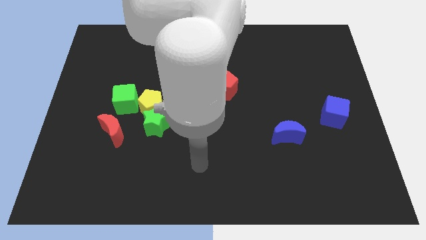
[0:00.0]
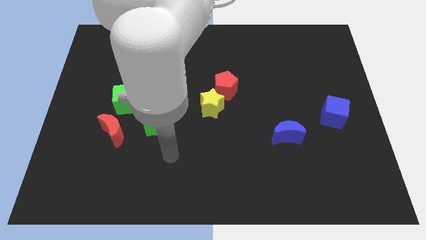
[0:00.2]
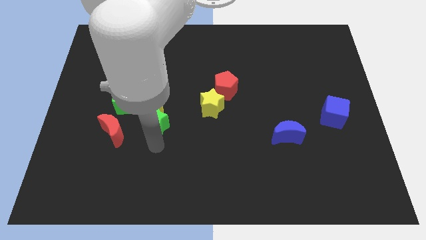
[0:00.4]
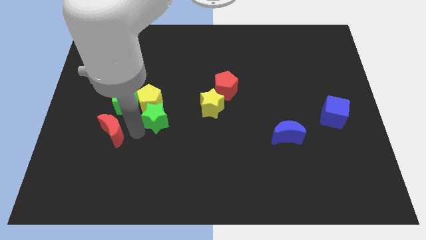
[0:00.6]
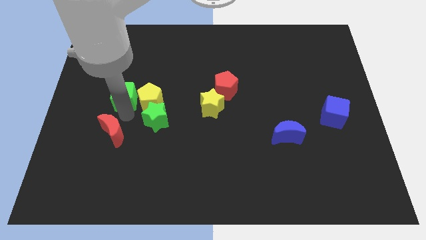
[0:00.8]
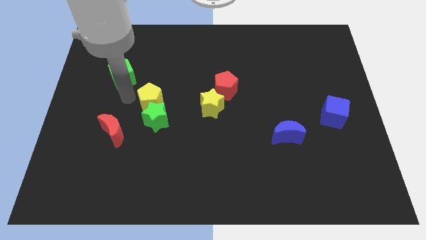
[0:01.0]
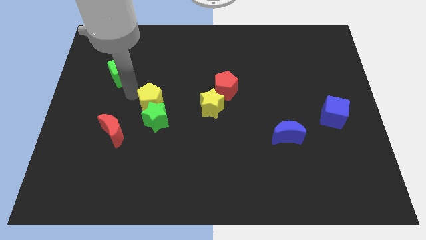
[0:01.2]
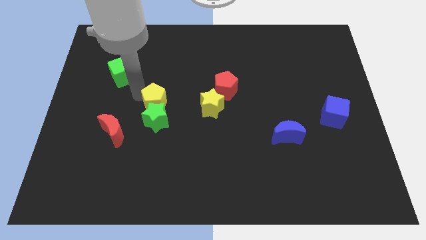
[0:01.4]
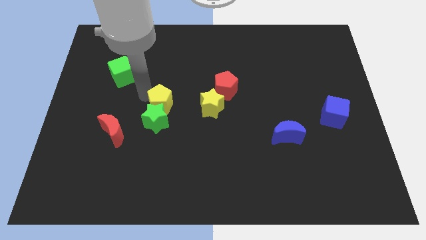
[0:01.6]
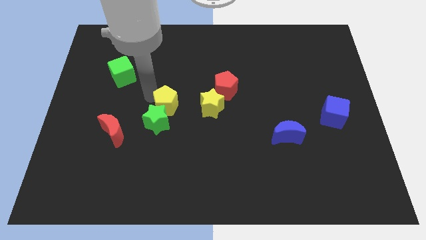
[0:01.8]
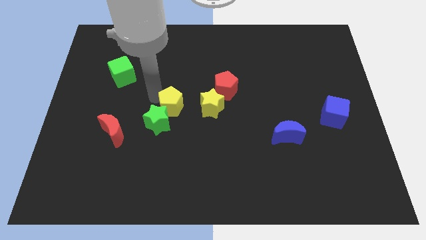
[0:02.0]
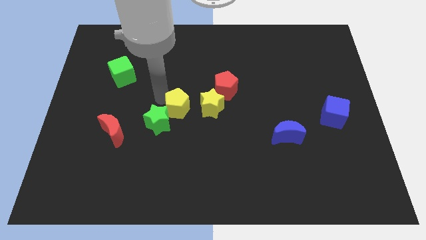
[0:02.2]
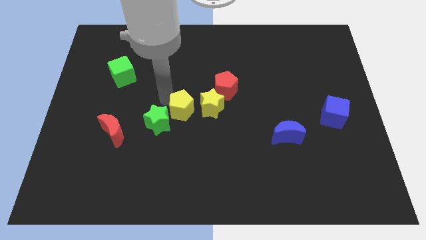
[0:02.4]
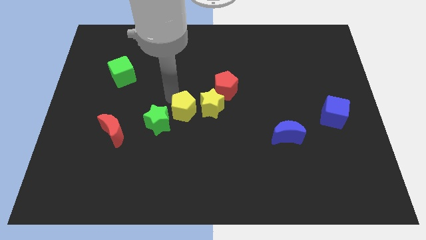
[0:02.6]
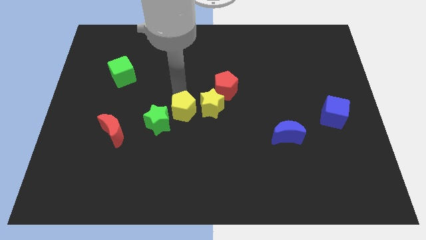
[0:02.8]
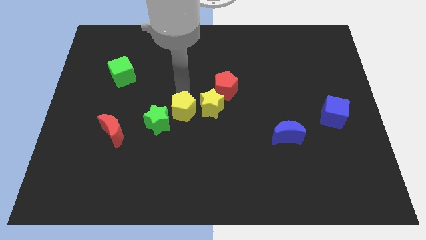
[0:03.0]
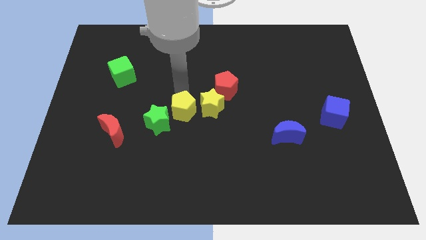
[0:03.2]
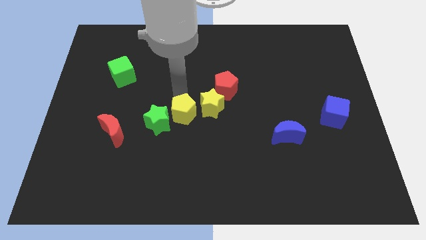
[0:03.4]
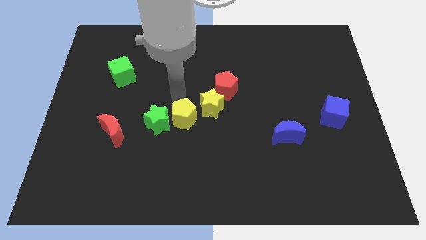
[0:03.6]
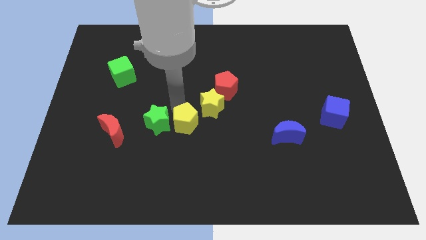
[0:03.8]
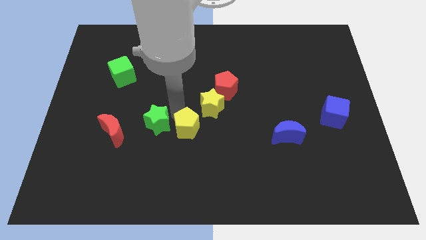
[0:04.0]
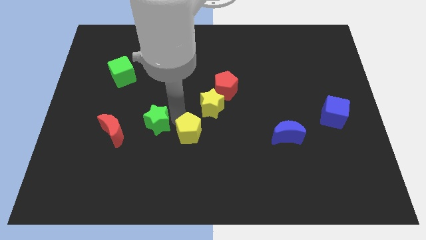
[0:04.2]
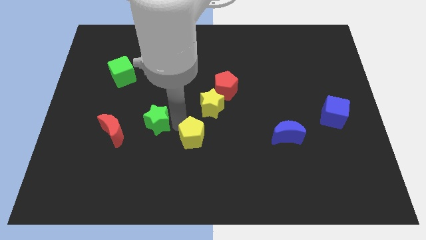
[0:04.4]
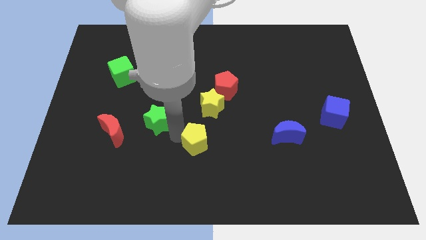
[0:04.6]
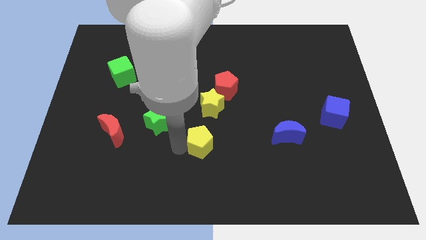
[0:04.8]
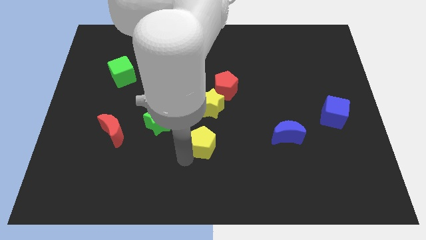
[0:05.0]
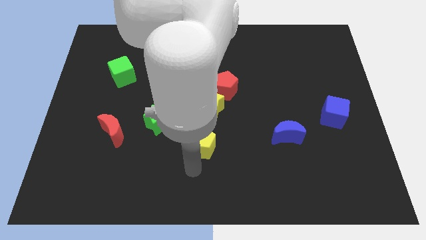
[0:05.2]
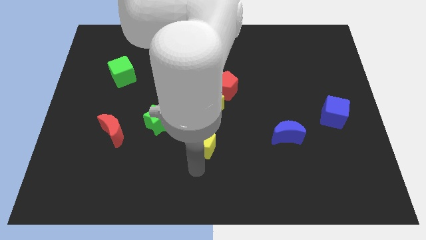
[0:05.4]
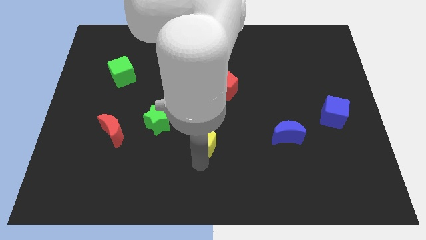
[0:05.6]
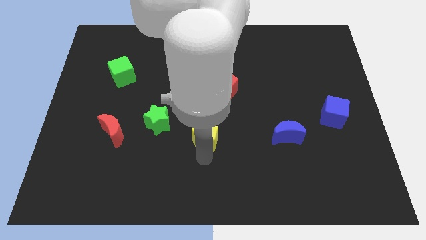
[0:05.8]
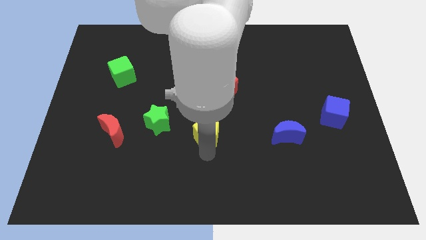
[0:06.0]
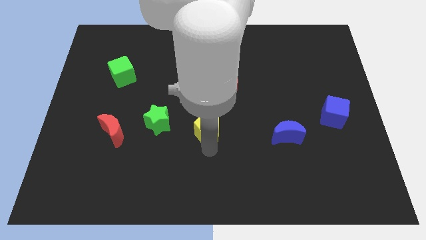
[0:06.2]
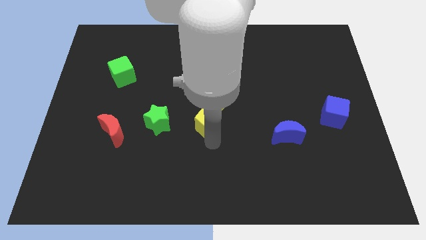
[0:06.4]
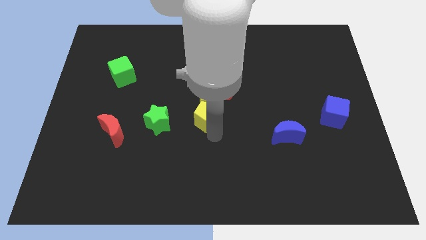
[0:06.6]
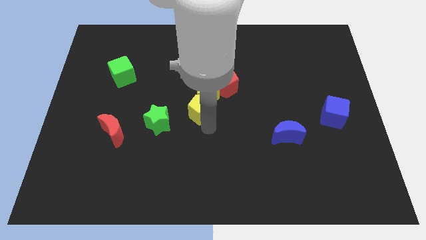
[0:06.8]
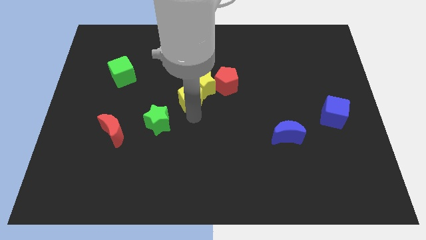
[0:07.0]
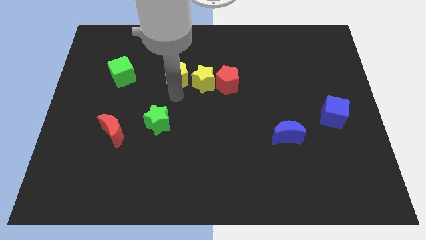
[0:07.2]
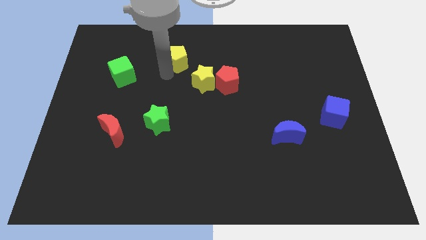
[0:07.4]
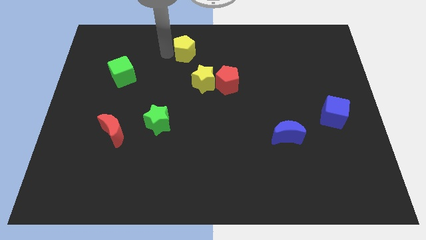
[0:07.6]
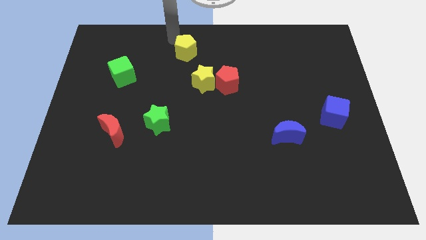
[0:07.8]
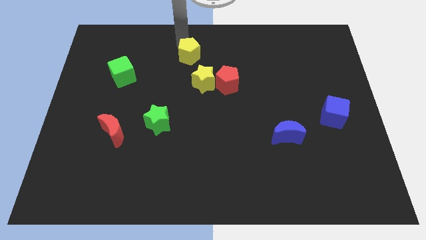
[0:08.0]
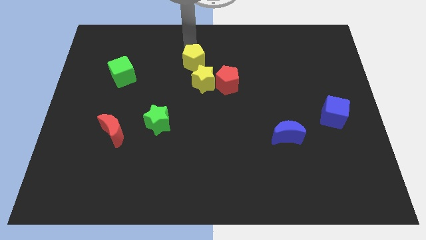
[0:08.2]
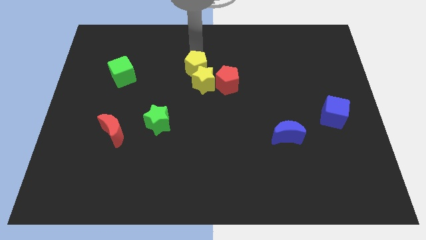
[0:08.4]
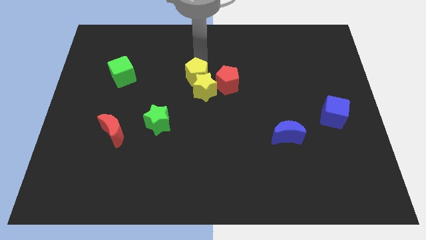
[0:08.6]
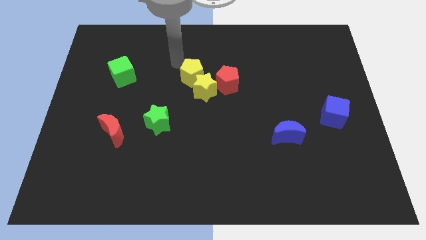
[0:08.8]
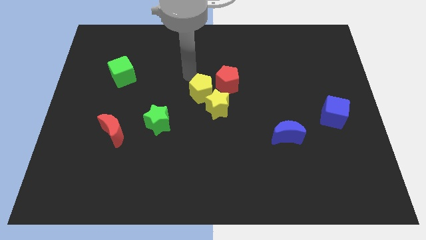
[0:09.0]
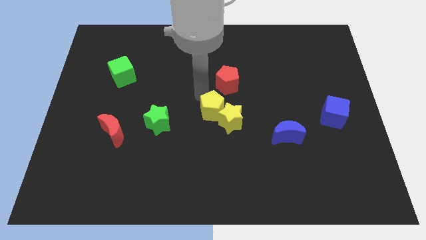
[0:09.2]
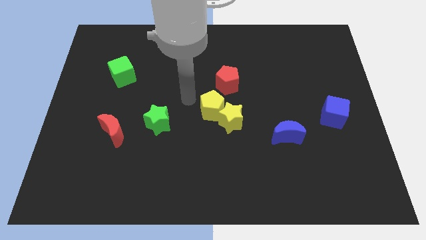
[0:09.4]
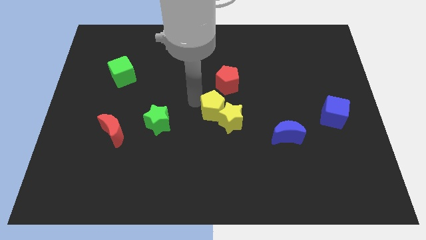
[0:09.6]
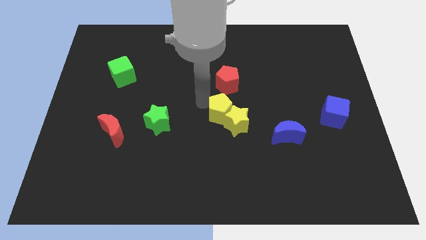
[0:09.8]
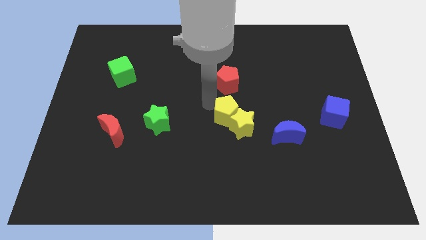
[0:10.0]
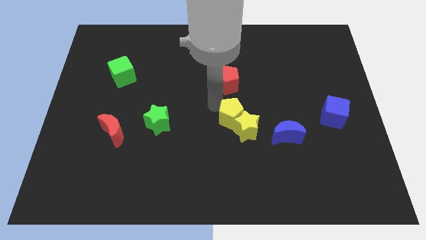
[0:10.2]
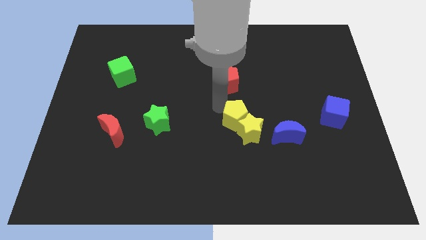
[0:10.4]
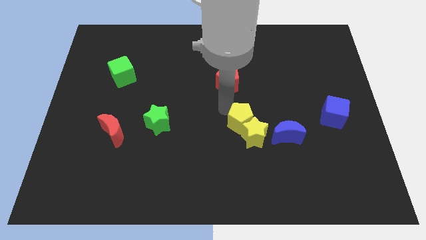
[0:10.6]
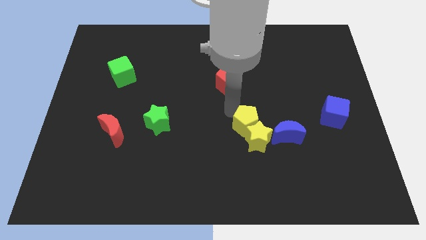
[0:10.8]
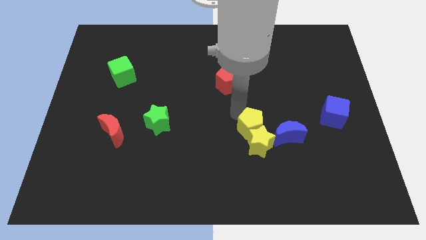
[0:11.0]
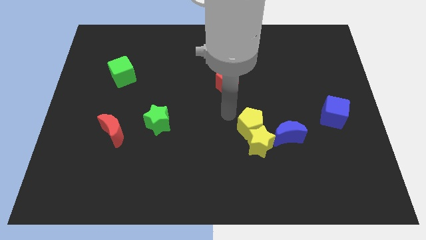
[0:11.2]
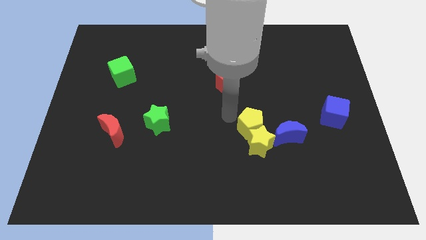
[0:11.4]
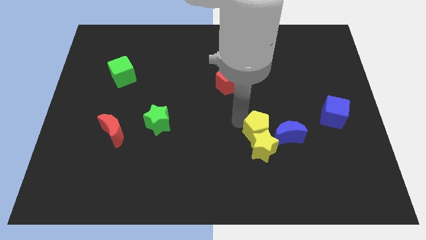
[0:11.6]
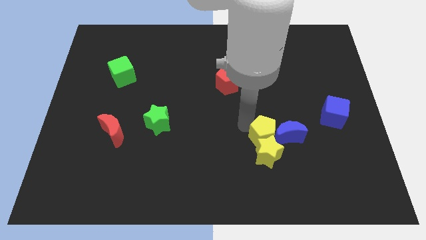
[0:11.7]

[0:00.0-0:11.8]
push the yellow pentagon to the blue moon

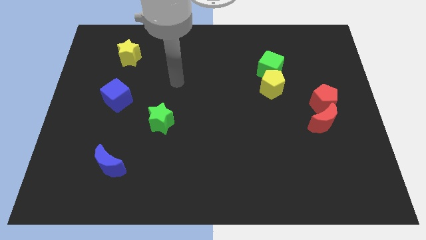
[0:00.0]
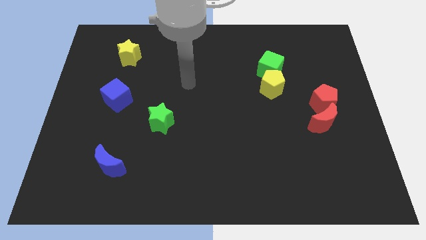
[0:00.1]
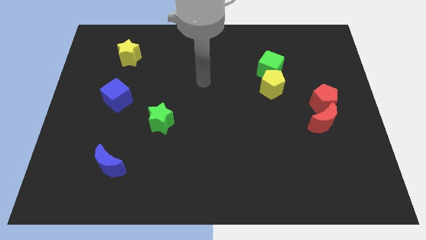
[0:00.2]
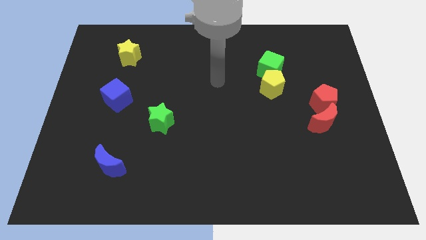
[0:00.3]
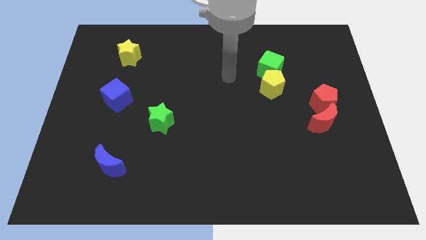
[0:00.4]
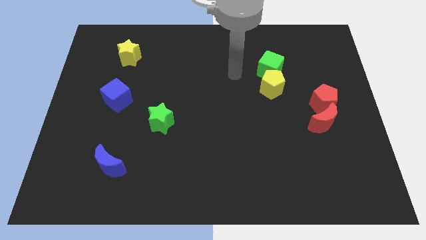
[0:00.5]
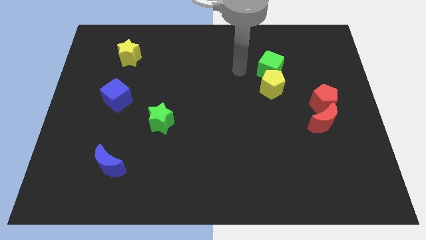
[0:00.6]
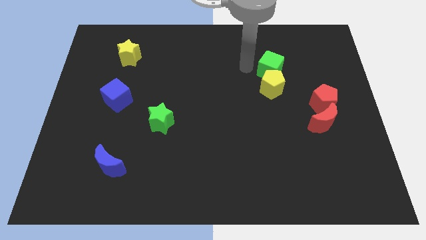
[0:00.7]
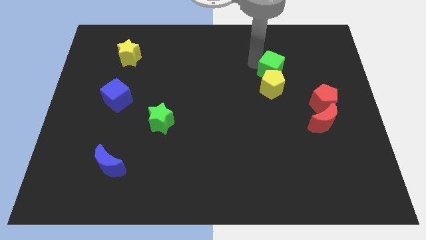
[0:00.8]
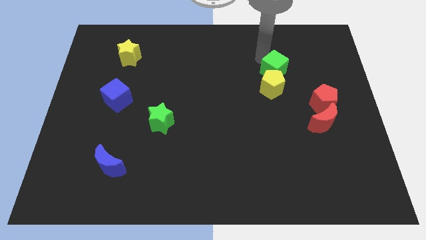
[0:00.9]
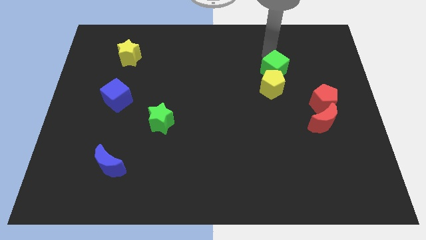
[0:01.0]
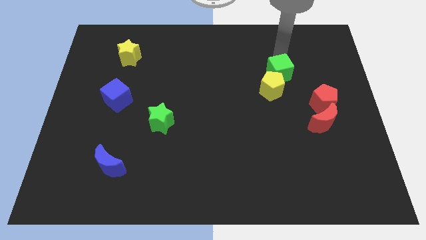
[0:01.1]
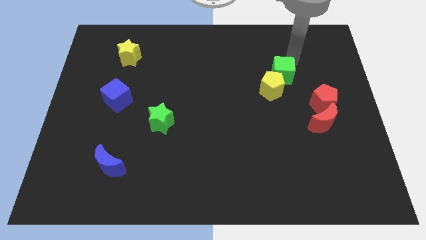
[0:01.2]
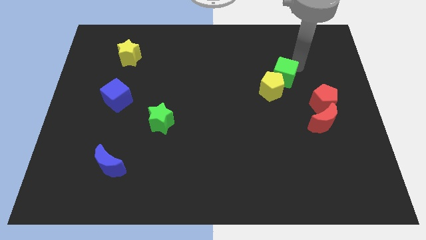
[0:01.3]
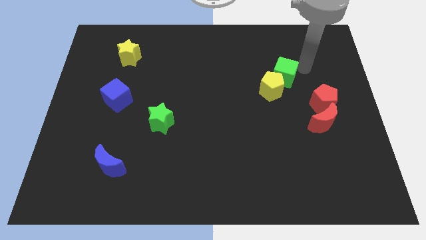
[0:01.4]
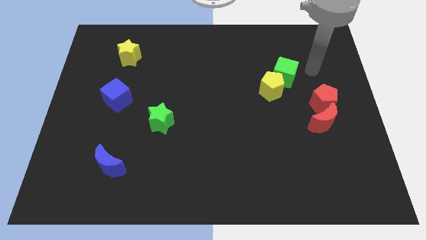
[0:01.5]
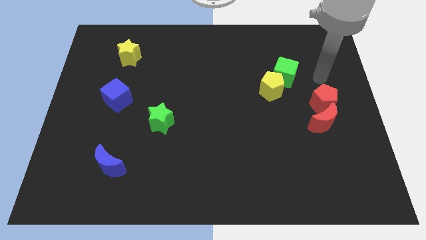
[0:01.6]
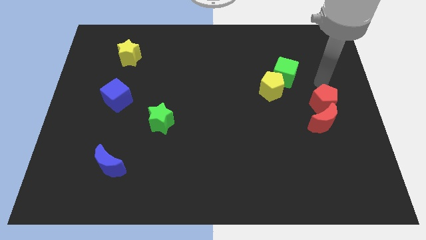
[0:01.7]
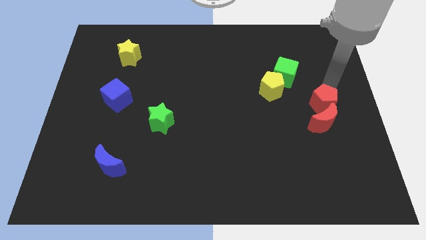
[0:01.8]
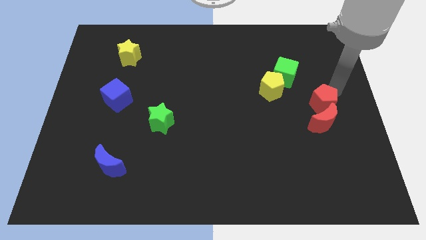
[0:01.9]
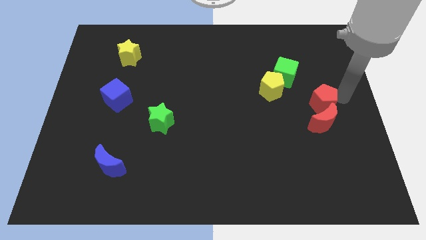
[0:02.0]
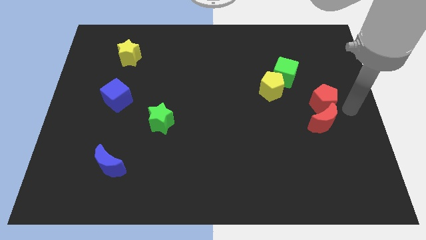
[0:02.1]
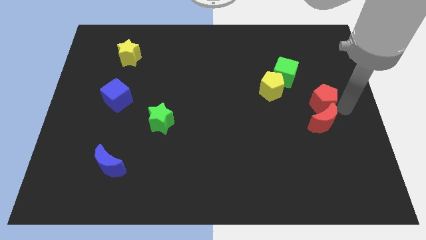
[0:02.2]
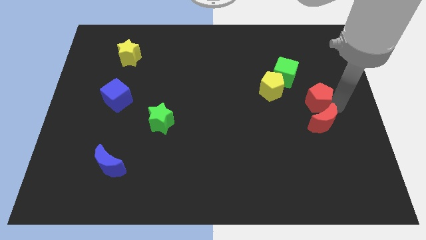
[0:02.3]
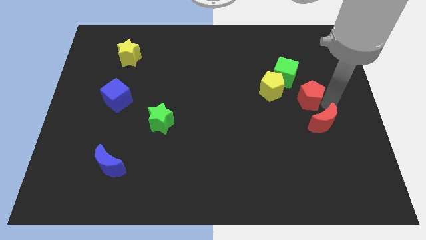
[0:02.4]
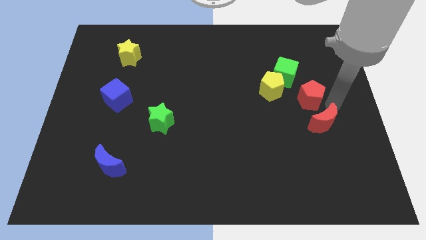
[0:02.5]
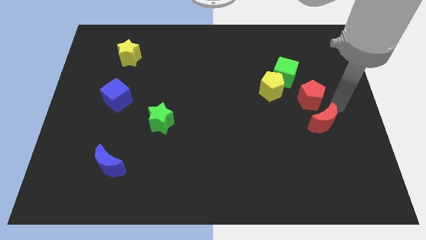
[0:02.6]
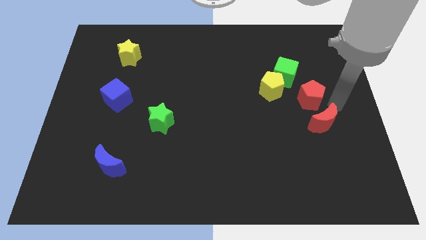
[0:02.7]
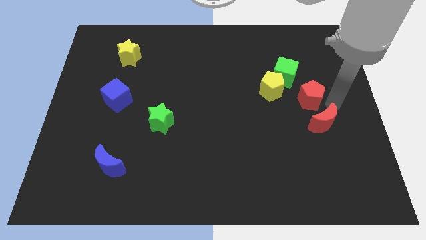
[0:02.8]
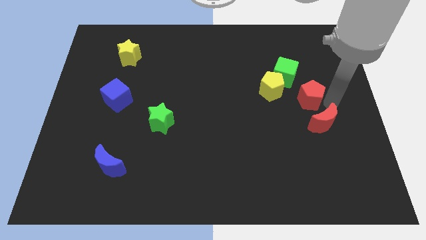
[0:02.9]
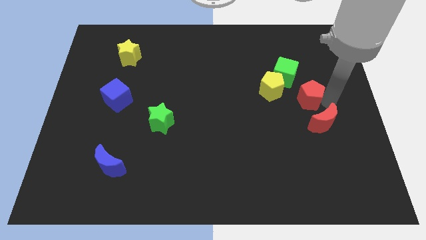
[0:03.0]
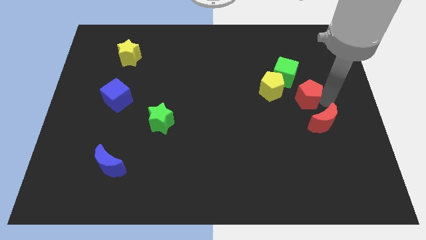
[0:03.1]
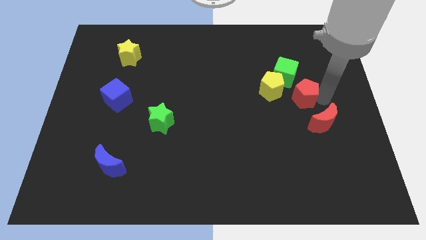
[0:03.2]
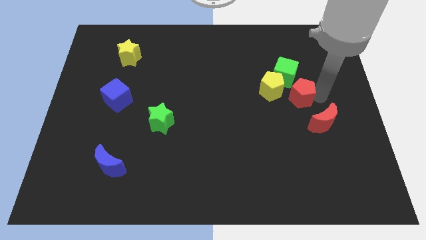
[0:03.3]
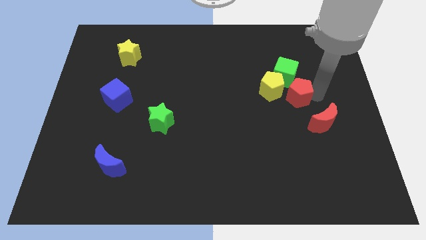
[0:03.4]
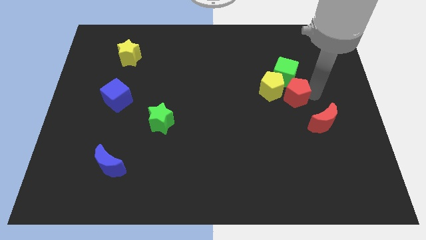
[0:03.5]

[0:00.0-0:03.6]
move the red pentagon to the yellow pentagon
